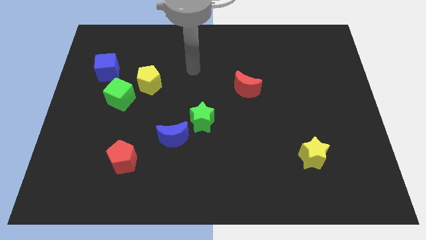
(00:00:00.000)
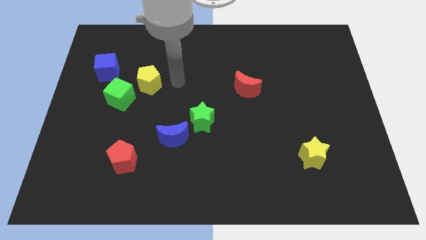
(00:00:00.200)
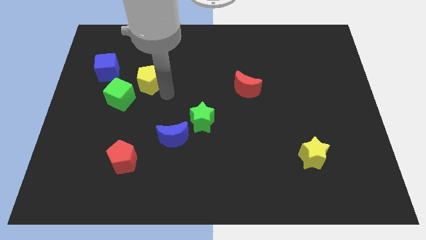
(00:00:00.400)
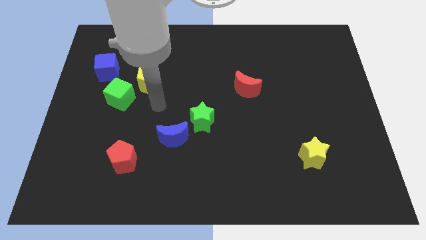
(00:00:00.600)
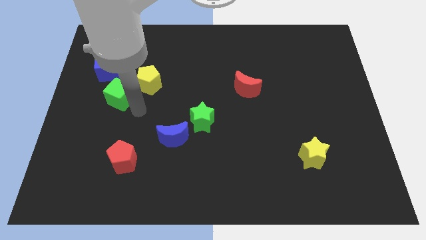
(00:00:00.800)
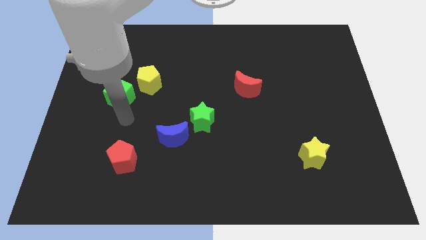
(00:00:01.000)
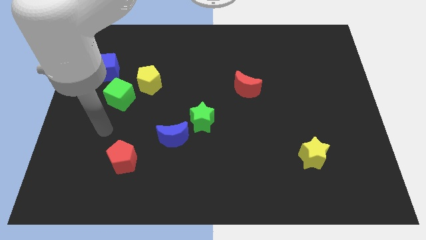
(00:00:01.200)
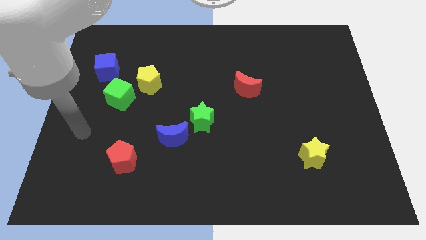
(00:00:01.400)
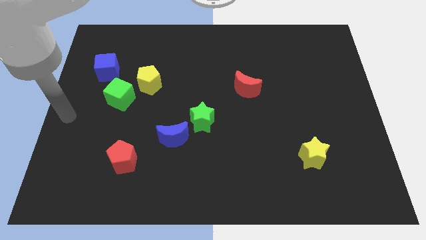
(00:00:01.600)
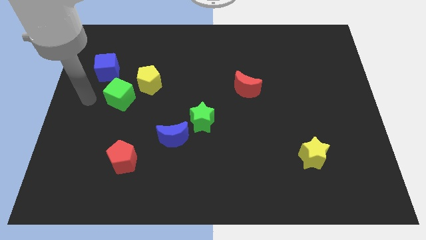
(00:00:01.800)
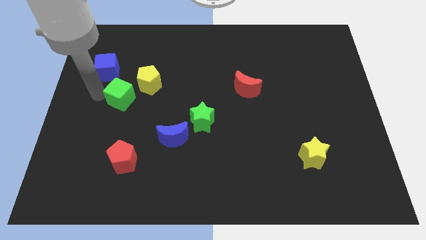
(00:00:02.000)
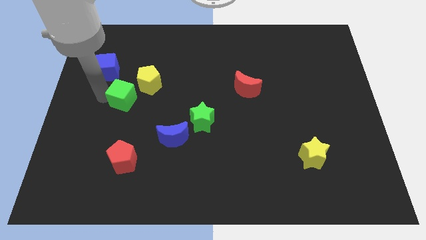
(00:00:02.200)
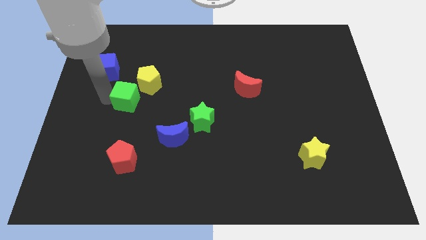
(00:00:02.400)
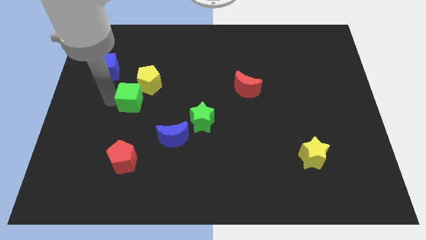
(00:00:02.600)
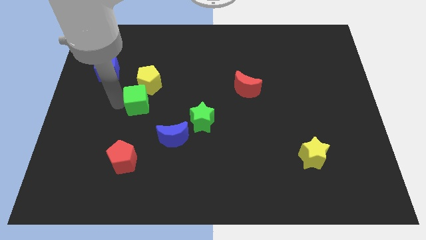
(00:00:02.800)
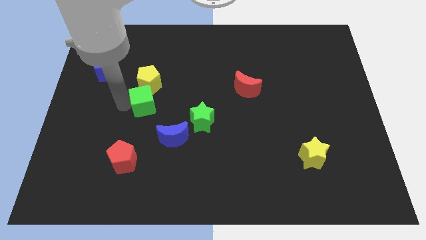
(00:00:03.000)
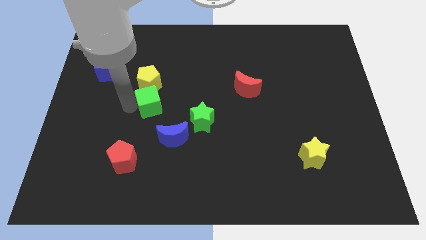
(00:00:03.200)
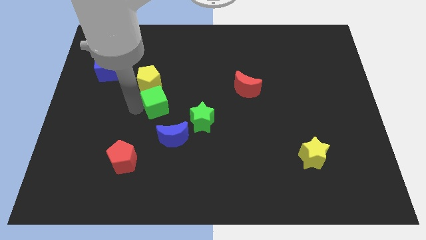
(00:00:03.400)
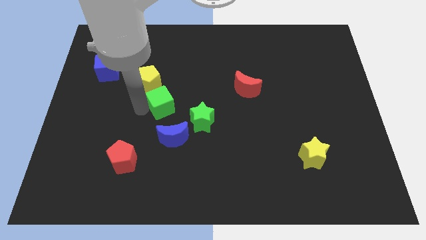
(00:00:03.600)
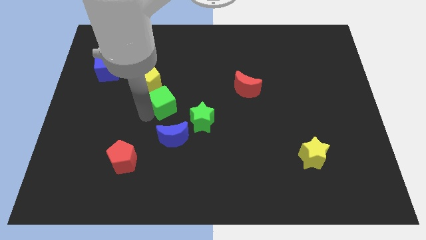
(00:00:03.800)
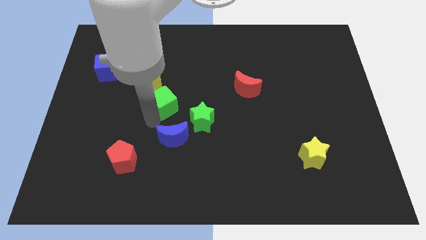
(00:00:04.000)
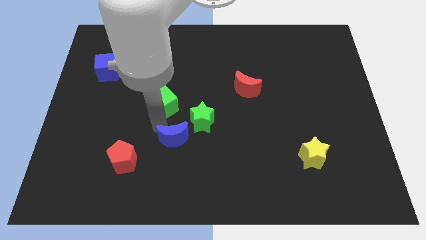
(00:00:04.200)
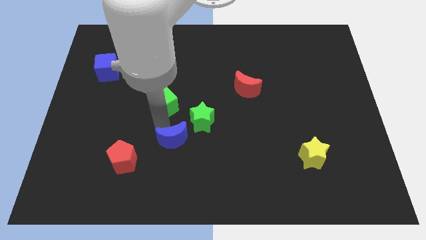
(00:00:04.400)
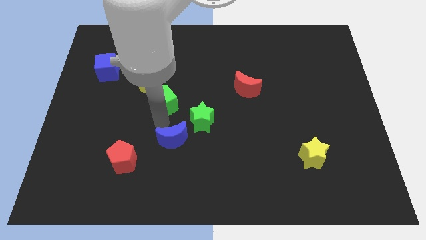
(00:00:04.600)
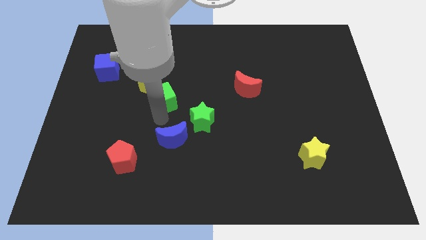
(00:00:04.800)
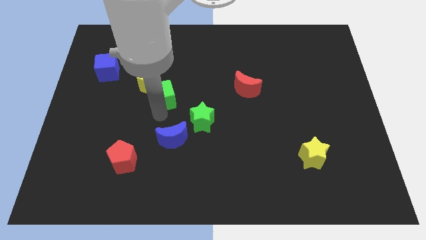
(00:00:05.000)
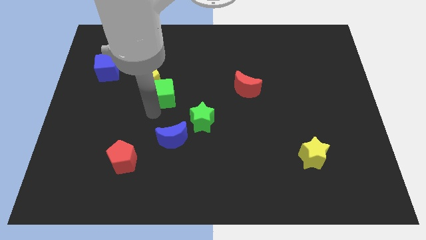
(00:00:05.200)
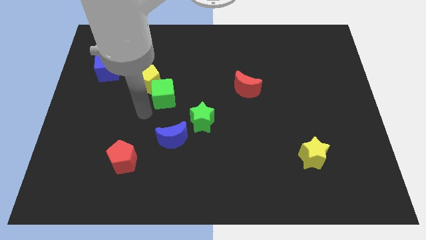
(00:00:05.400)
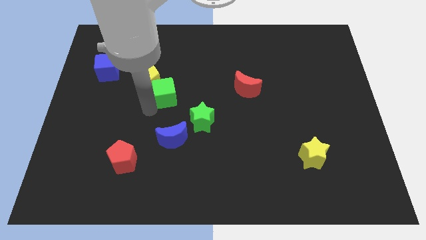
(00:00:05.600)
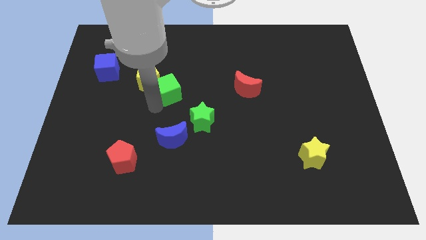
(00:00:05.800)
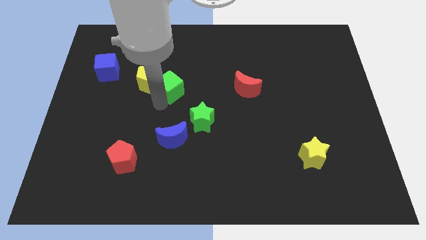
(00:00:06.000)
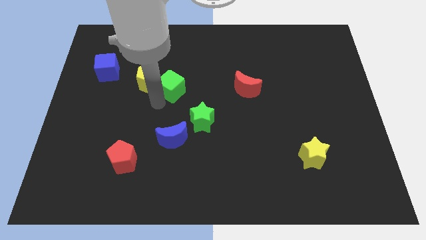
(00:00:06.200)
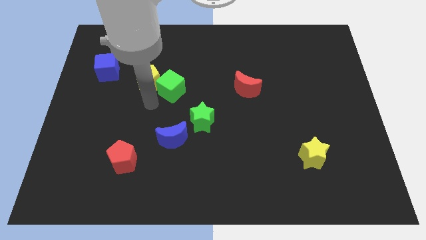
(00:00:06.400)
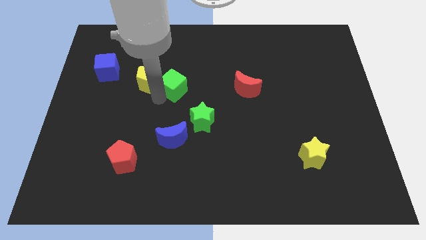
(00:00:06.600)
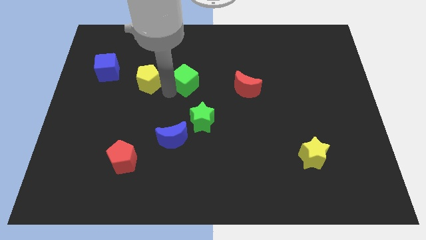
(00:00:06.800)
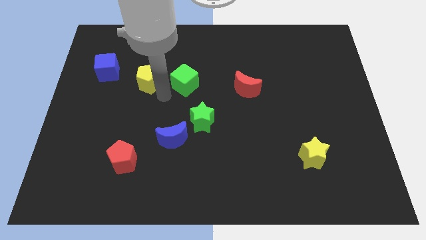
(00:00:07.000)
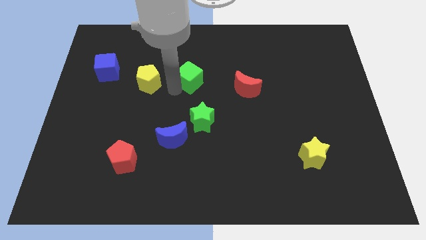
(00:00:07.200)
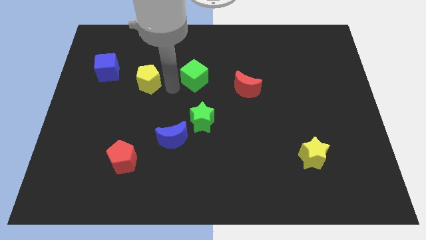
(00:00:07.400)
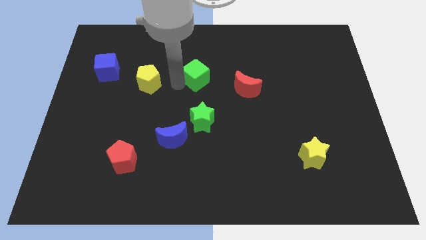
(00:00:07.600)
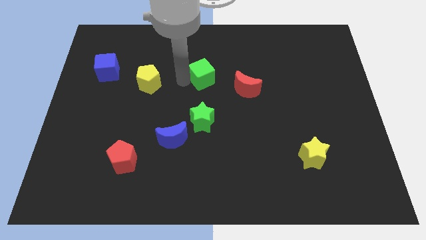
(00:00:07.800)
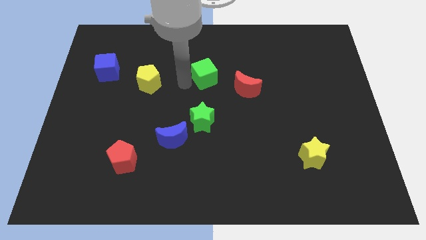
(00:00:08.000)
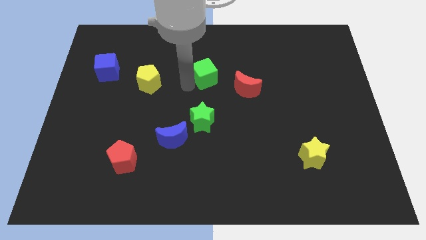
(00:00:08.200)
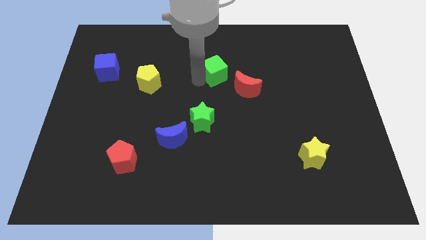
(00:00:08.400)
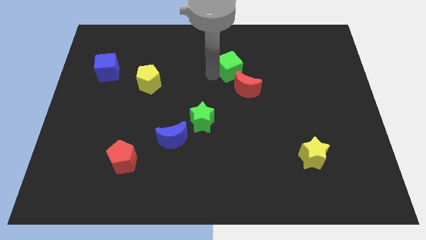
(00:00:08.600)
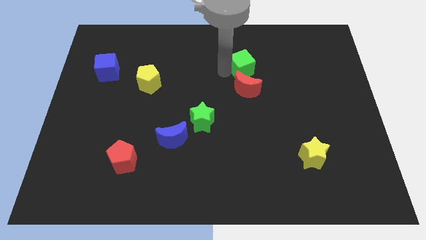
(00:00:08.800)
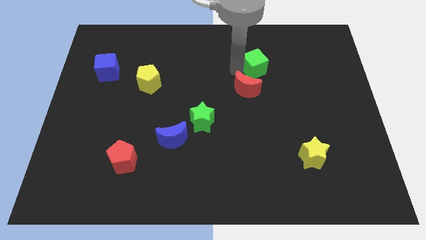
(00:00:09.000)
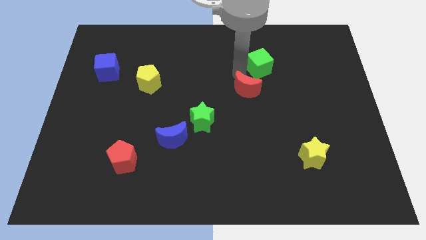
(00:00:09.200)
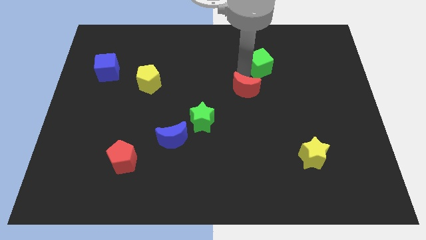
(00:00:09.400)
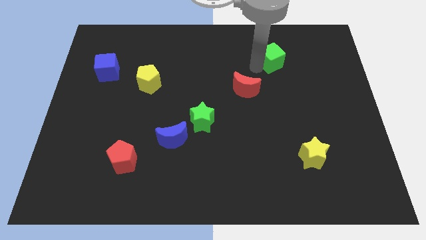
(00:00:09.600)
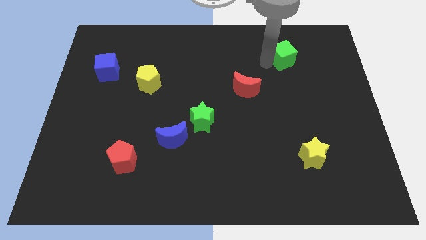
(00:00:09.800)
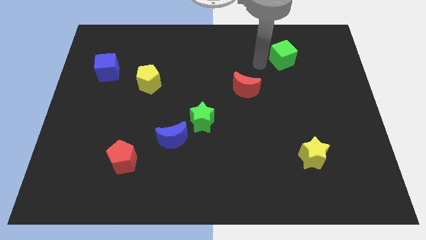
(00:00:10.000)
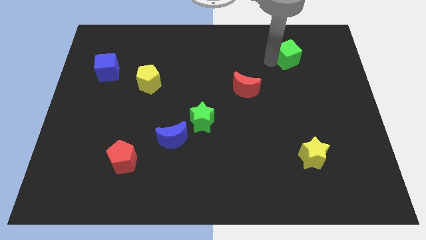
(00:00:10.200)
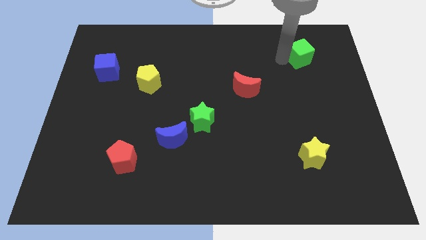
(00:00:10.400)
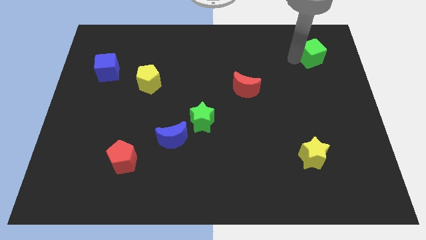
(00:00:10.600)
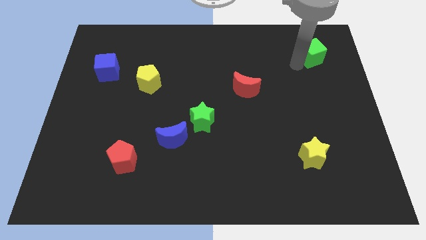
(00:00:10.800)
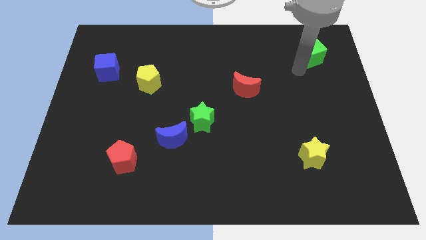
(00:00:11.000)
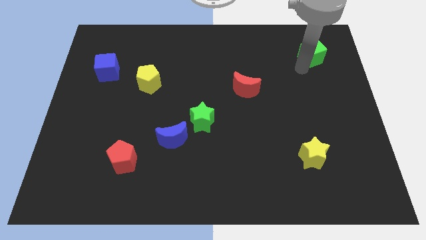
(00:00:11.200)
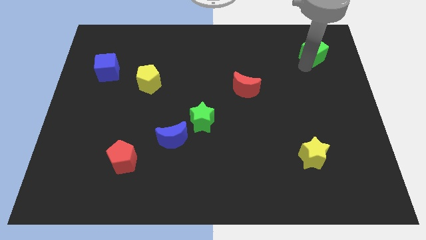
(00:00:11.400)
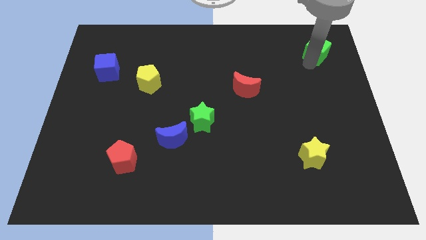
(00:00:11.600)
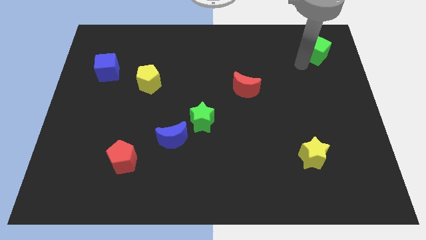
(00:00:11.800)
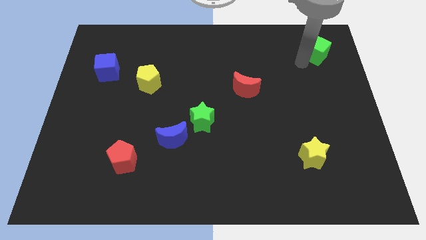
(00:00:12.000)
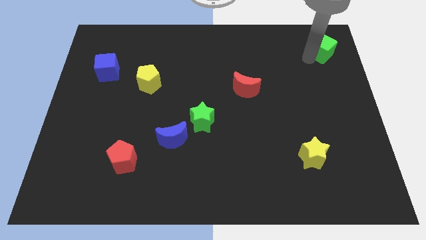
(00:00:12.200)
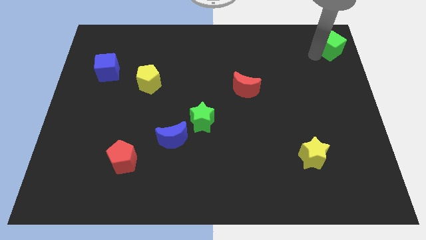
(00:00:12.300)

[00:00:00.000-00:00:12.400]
put the green cube to the top right corner

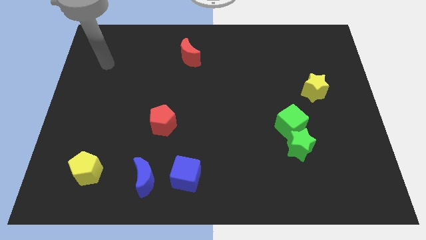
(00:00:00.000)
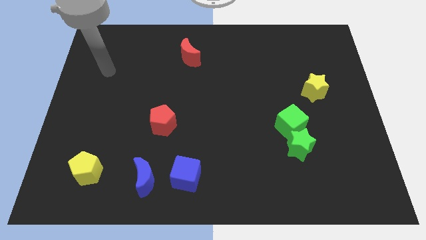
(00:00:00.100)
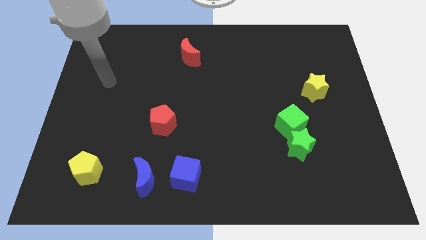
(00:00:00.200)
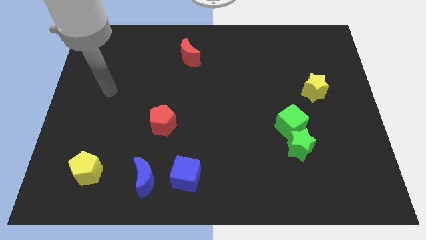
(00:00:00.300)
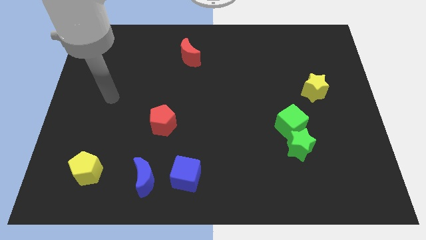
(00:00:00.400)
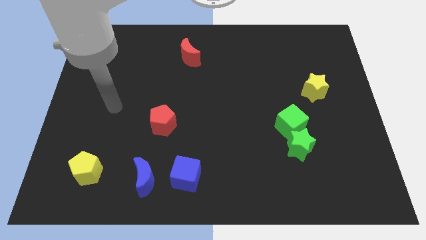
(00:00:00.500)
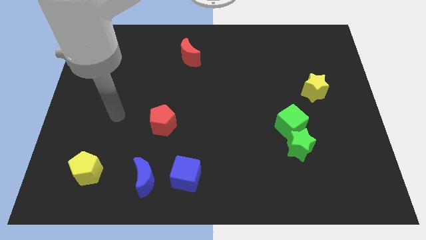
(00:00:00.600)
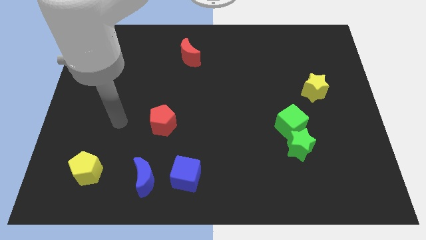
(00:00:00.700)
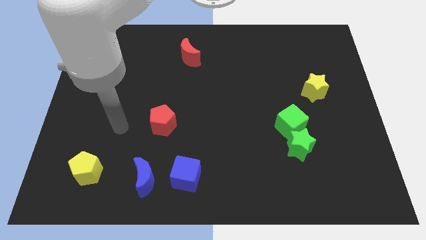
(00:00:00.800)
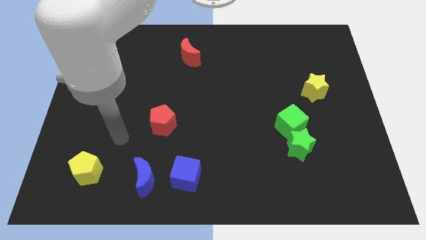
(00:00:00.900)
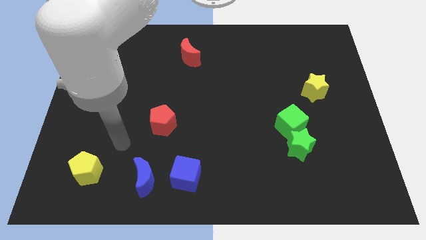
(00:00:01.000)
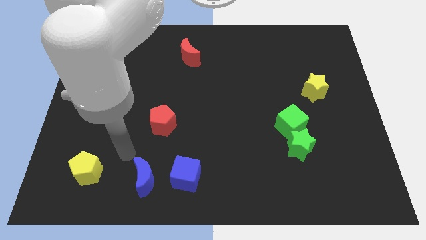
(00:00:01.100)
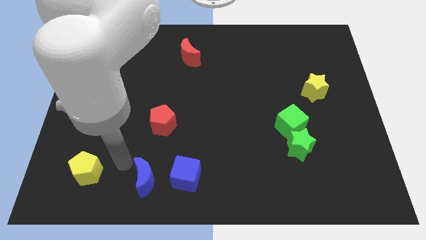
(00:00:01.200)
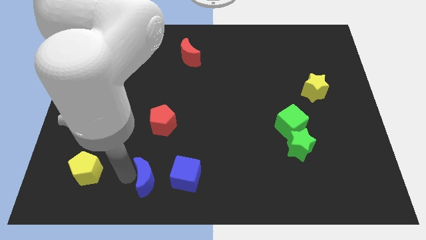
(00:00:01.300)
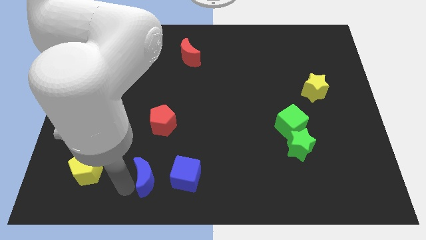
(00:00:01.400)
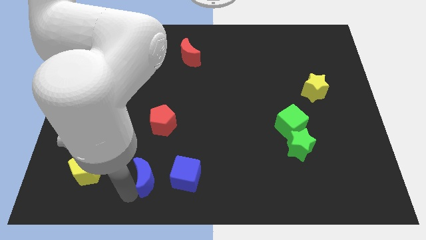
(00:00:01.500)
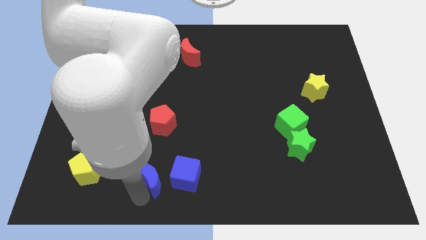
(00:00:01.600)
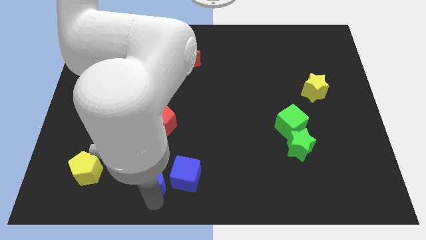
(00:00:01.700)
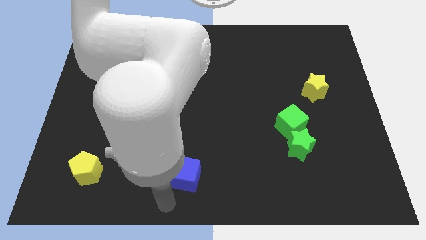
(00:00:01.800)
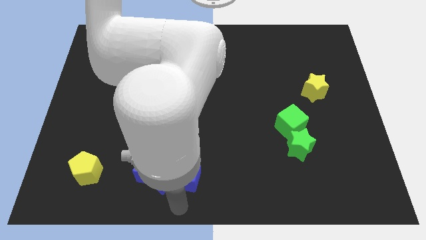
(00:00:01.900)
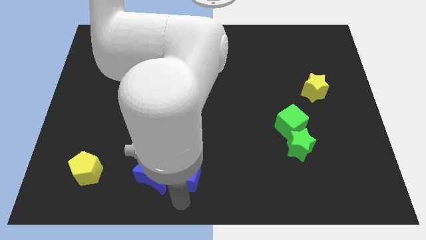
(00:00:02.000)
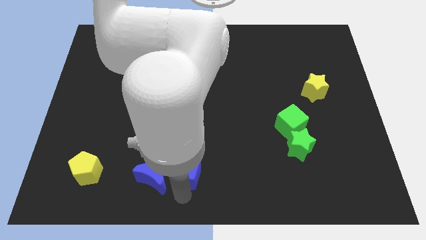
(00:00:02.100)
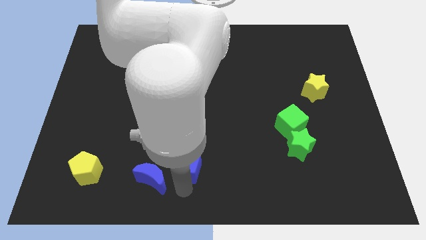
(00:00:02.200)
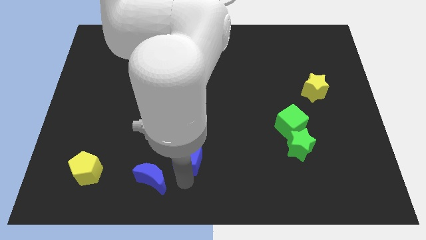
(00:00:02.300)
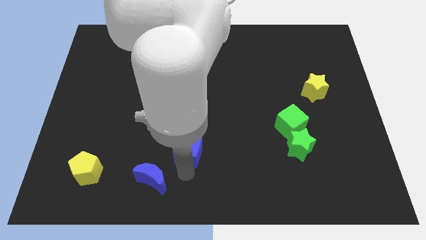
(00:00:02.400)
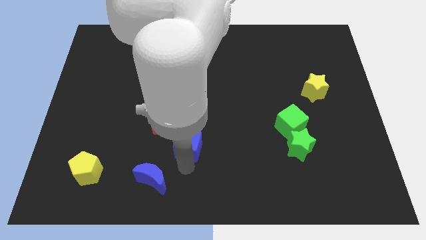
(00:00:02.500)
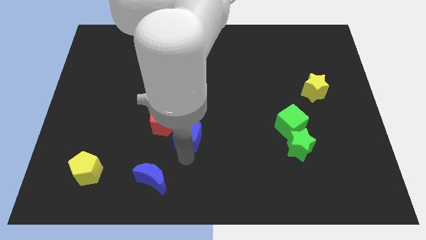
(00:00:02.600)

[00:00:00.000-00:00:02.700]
put the blue cube to the center
